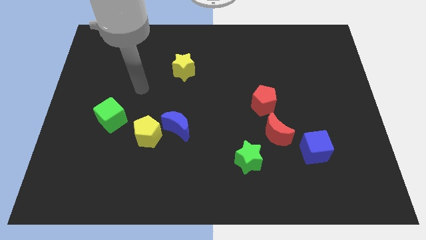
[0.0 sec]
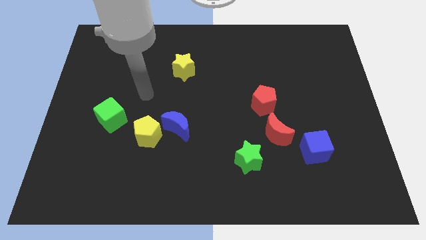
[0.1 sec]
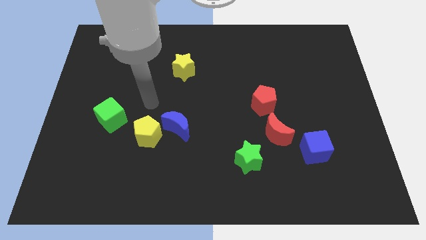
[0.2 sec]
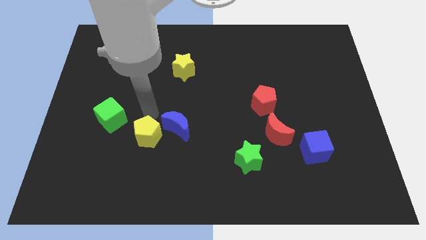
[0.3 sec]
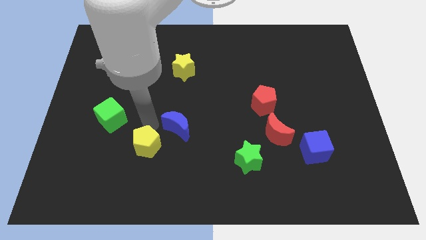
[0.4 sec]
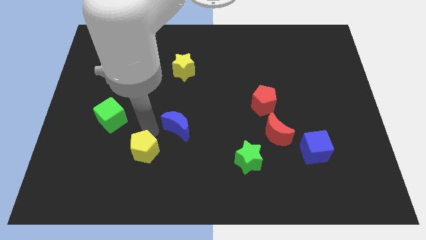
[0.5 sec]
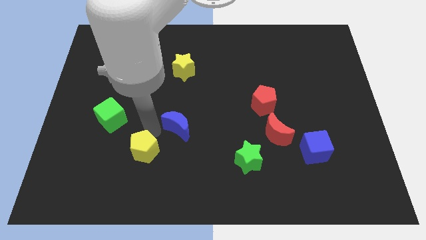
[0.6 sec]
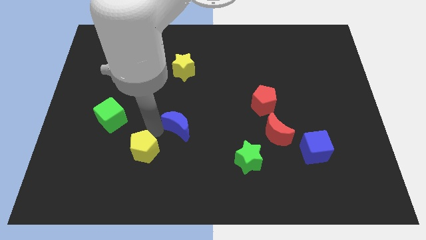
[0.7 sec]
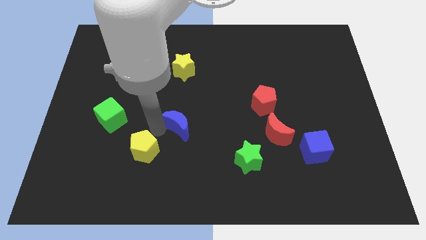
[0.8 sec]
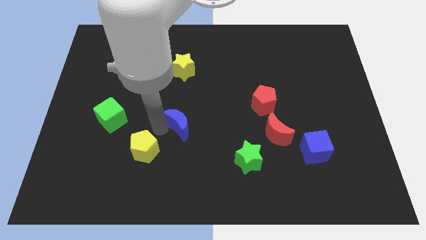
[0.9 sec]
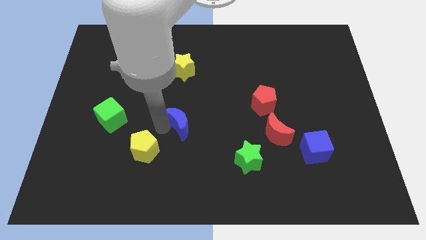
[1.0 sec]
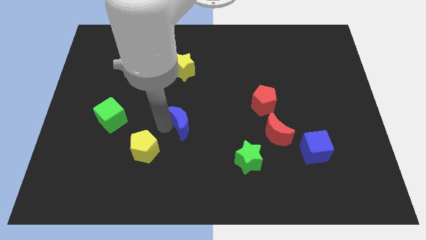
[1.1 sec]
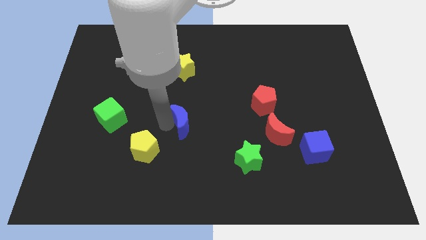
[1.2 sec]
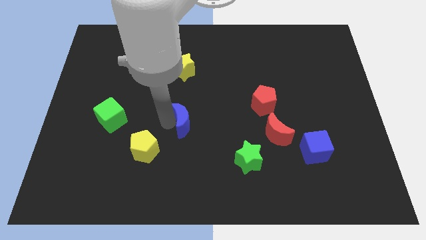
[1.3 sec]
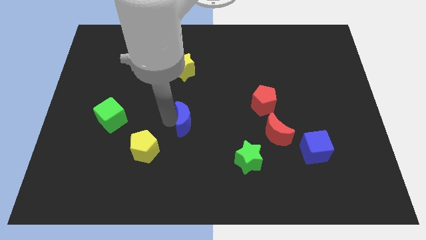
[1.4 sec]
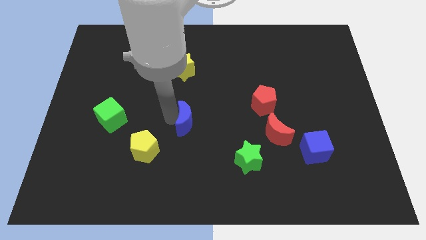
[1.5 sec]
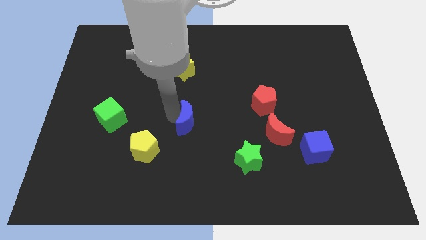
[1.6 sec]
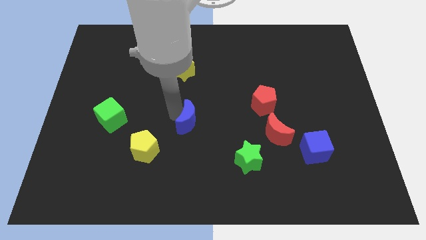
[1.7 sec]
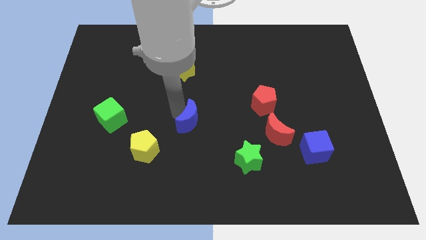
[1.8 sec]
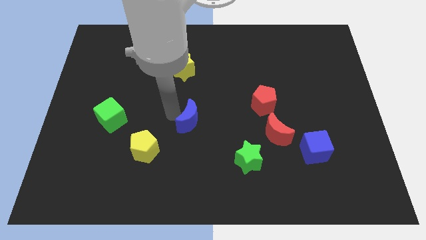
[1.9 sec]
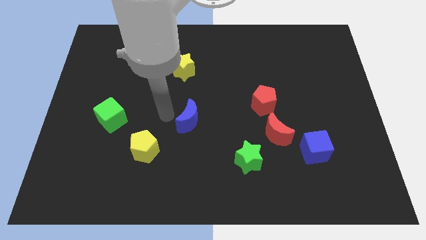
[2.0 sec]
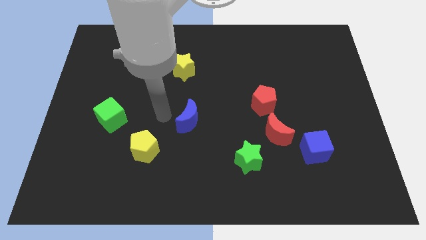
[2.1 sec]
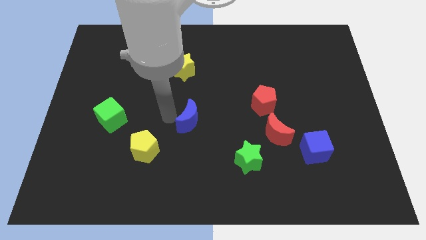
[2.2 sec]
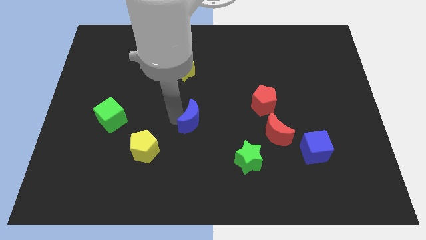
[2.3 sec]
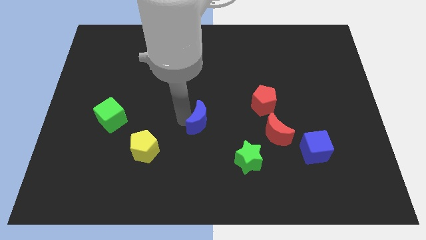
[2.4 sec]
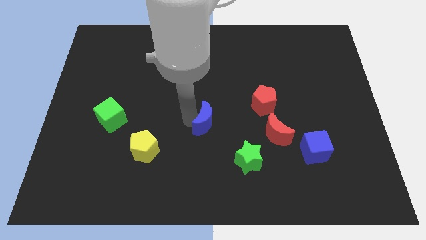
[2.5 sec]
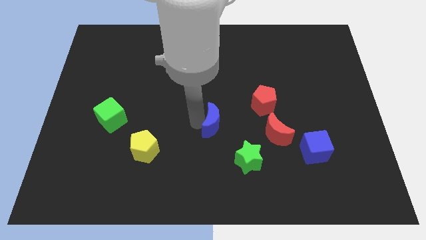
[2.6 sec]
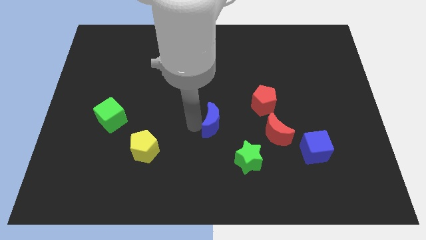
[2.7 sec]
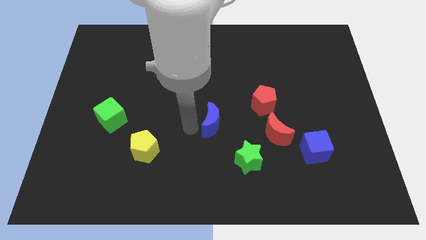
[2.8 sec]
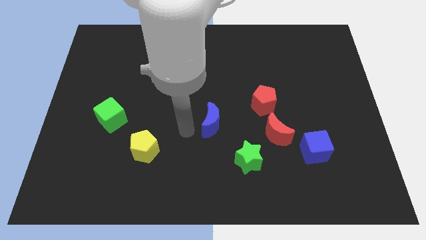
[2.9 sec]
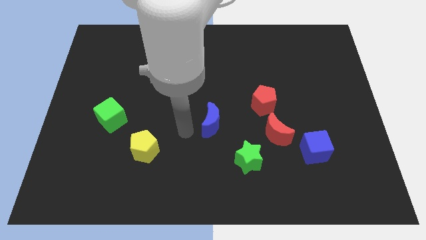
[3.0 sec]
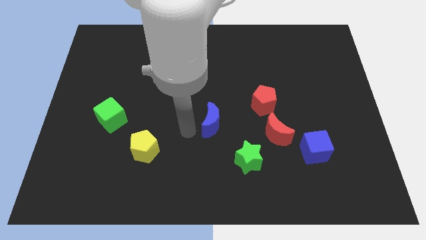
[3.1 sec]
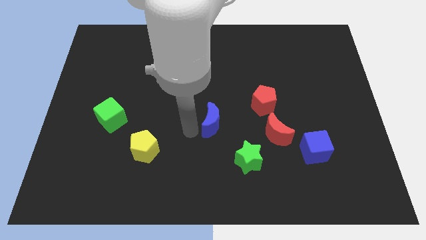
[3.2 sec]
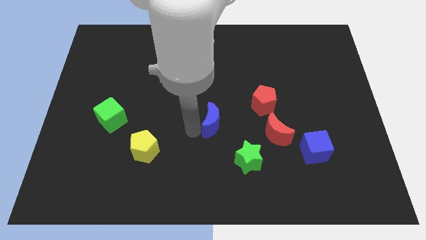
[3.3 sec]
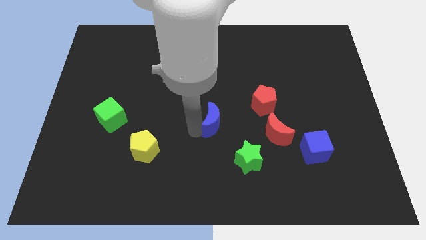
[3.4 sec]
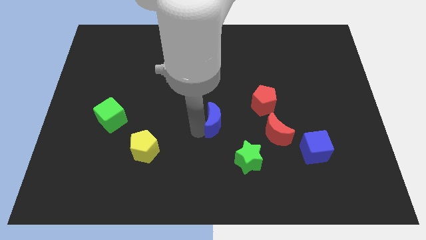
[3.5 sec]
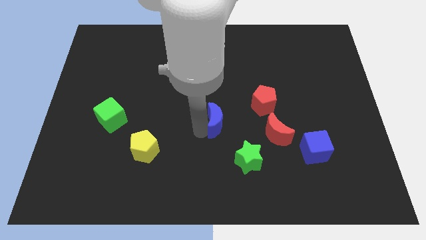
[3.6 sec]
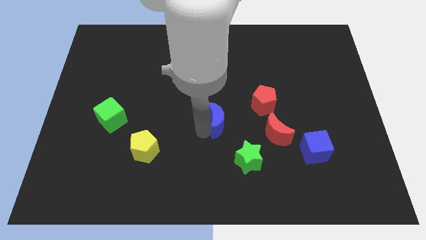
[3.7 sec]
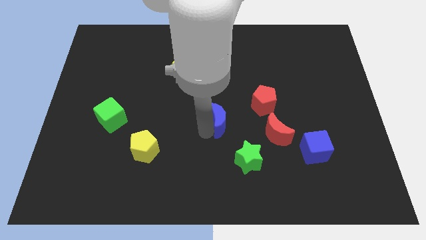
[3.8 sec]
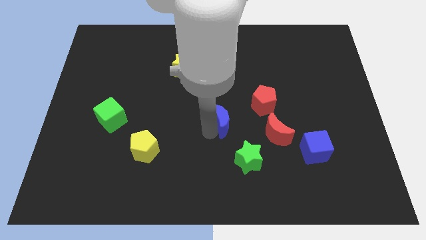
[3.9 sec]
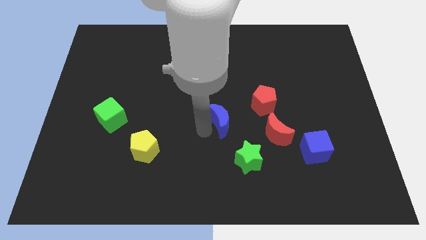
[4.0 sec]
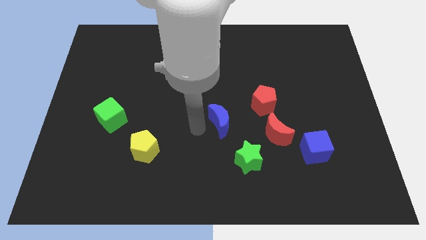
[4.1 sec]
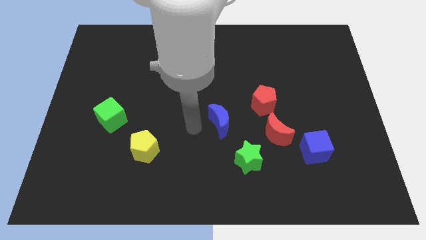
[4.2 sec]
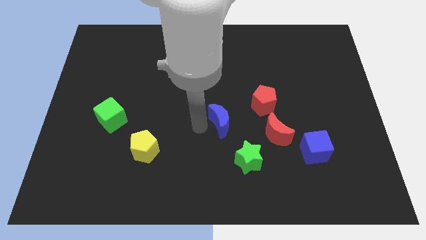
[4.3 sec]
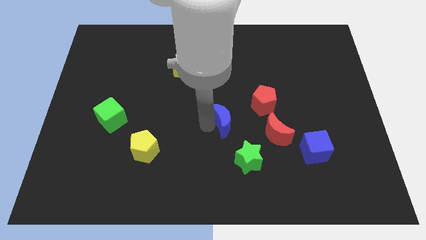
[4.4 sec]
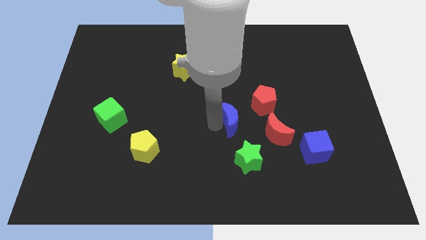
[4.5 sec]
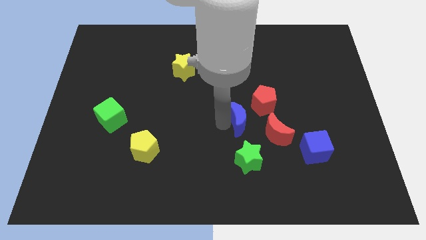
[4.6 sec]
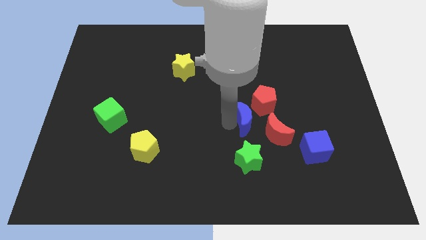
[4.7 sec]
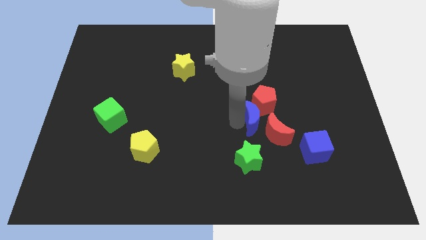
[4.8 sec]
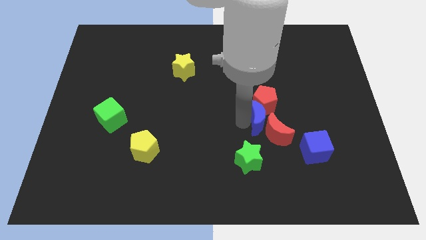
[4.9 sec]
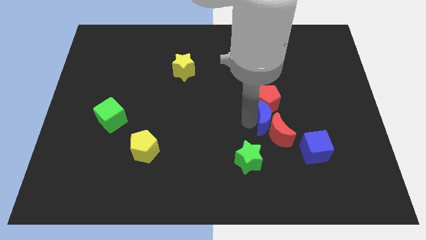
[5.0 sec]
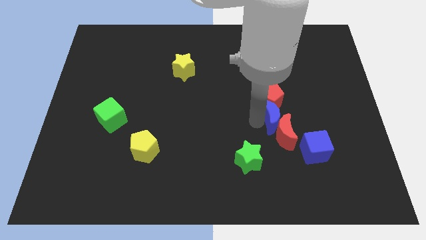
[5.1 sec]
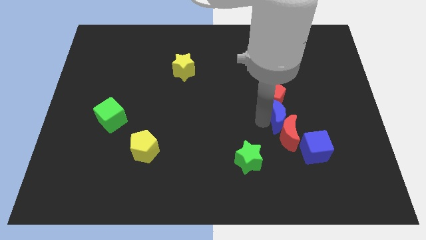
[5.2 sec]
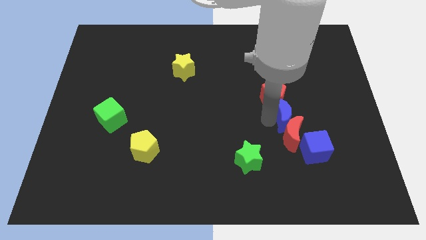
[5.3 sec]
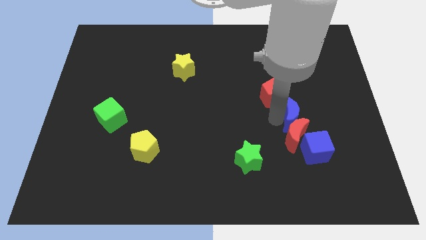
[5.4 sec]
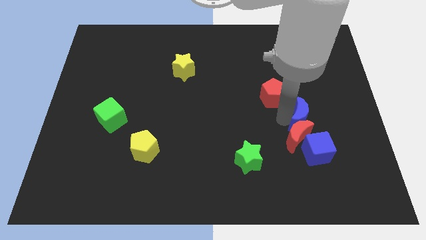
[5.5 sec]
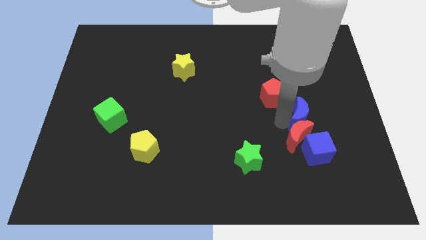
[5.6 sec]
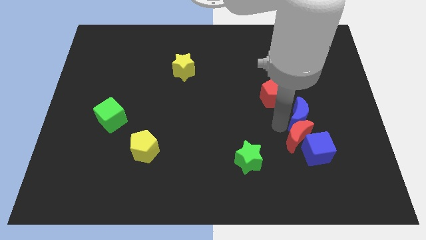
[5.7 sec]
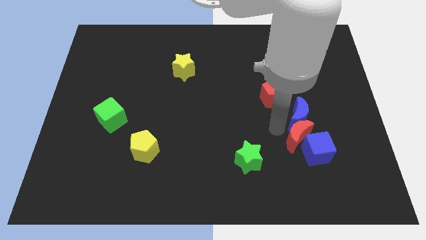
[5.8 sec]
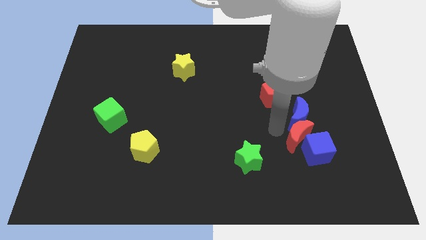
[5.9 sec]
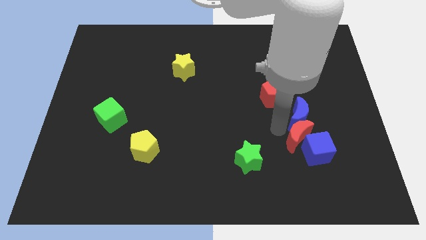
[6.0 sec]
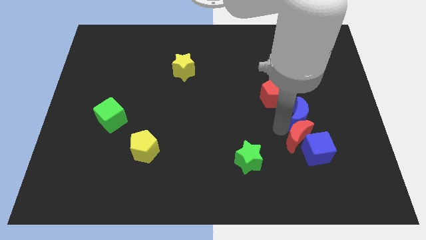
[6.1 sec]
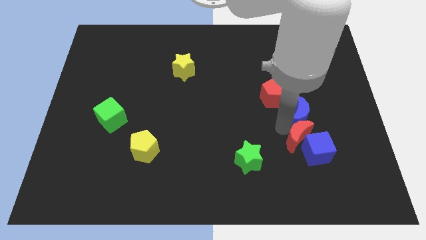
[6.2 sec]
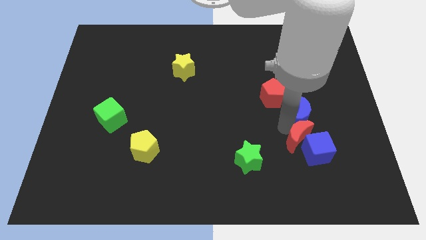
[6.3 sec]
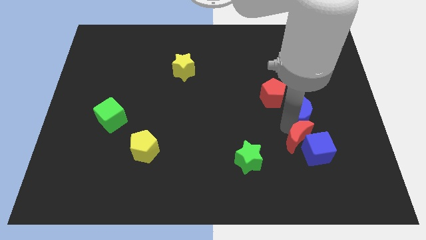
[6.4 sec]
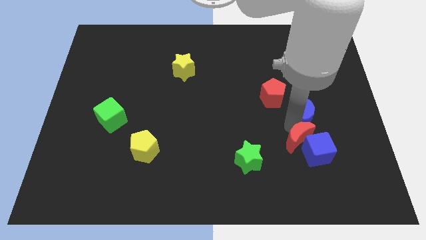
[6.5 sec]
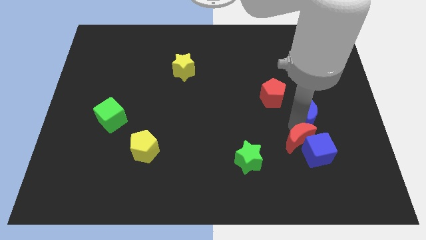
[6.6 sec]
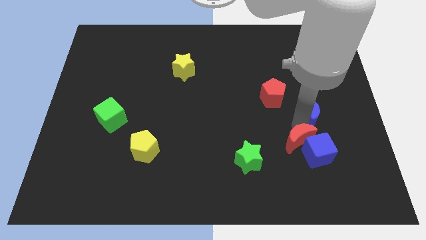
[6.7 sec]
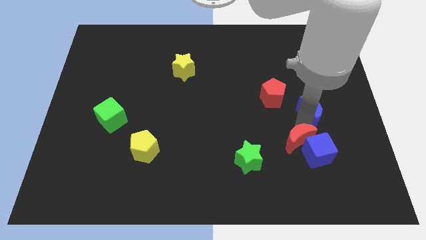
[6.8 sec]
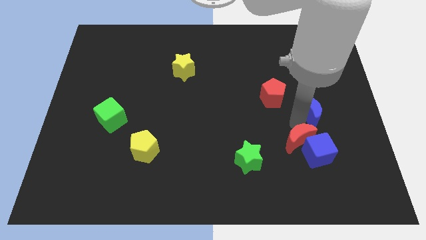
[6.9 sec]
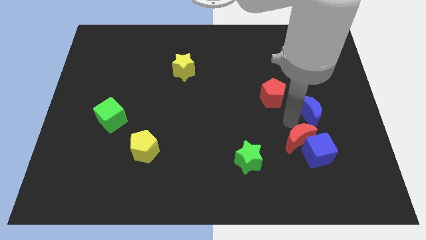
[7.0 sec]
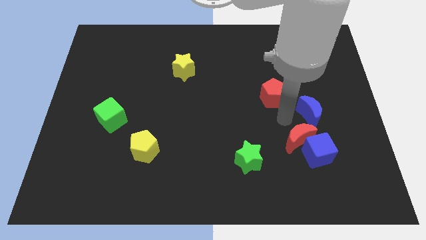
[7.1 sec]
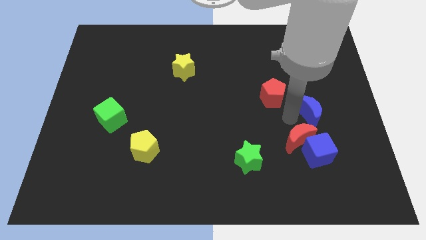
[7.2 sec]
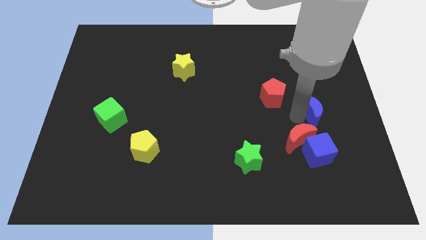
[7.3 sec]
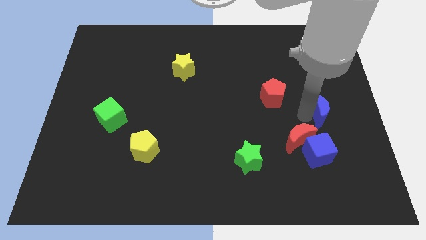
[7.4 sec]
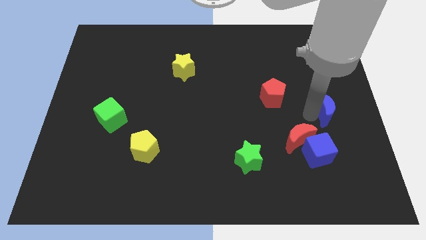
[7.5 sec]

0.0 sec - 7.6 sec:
move the blue moon to the right side of the board

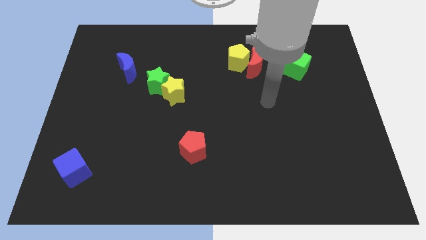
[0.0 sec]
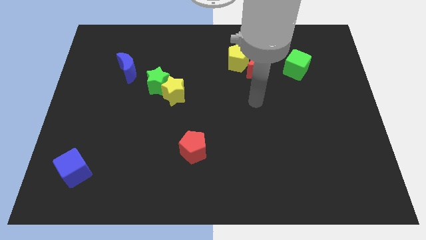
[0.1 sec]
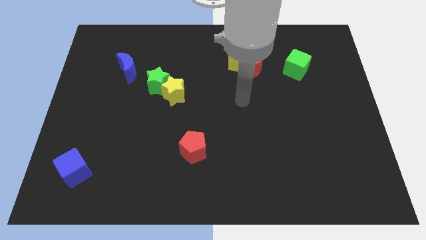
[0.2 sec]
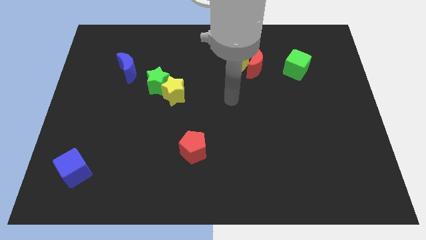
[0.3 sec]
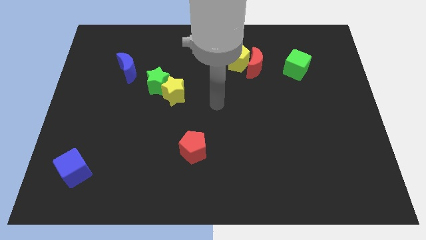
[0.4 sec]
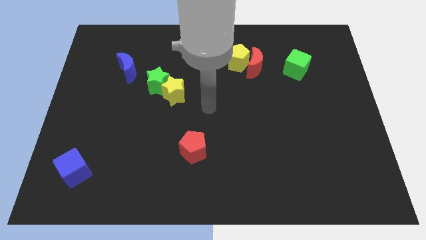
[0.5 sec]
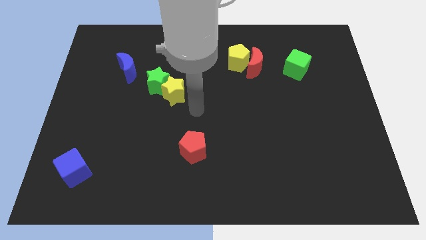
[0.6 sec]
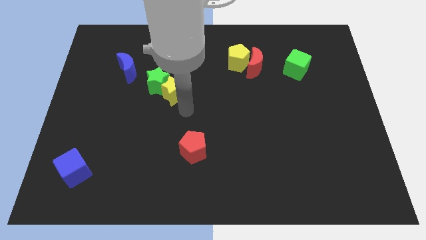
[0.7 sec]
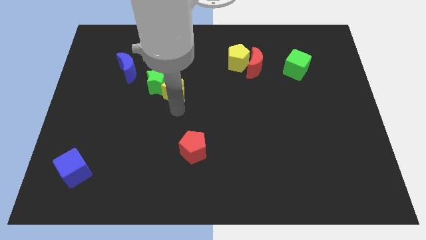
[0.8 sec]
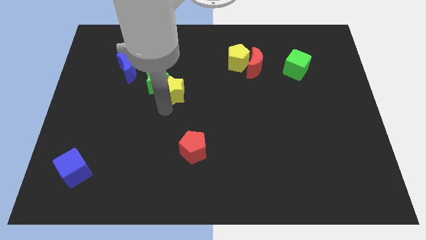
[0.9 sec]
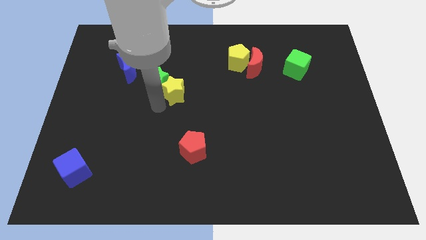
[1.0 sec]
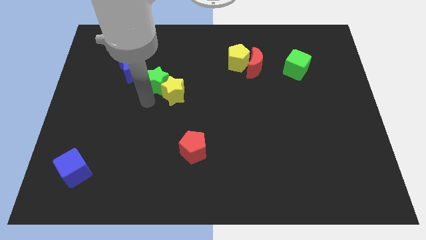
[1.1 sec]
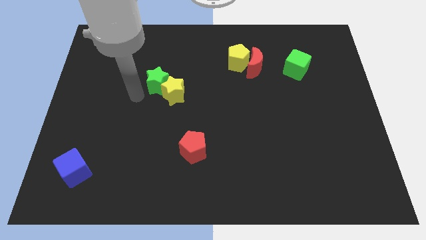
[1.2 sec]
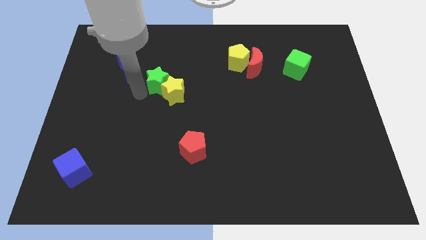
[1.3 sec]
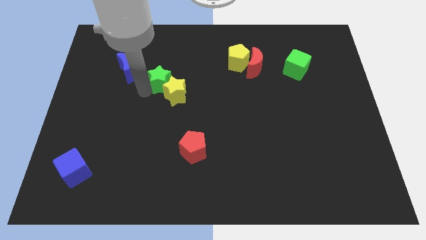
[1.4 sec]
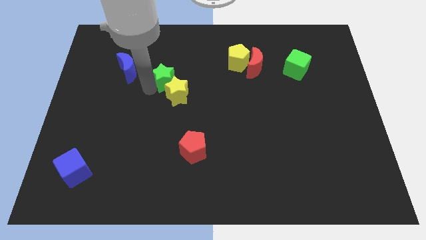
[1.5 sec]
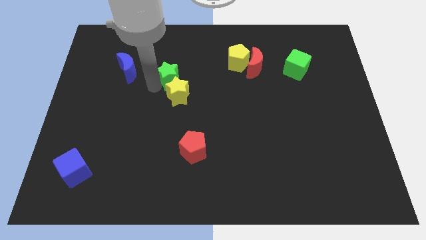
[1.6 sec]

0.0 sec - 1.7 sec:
slide the green star to the center of the board
